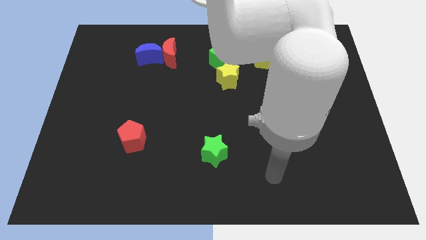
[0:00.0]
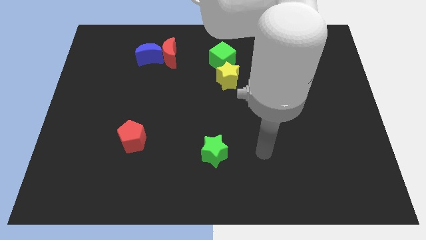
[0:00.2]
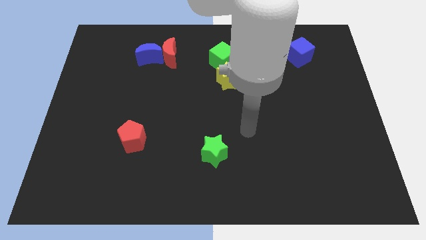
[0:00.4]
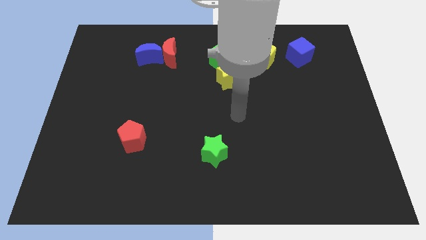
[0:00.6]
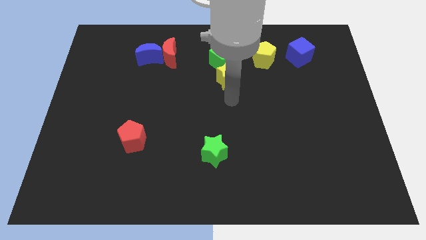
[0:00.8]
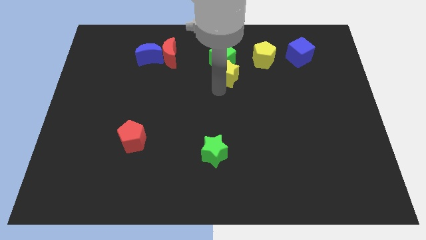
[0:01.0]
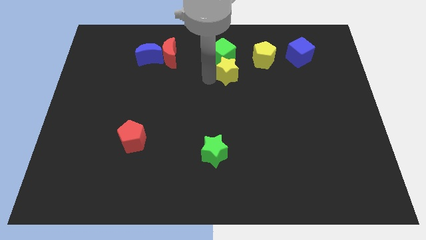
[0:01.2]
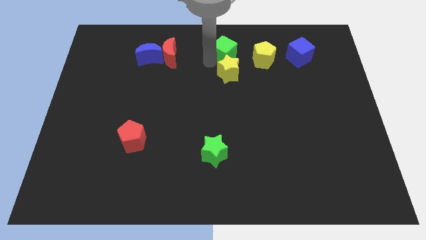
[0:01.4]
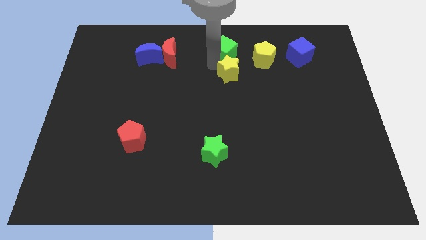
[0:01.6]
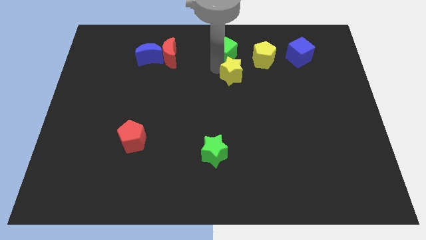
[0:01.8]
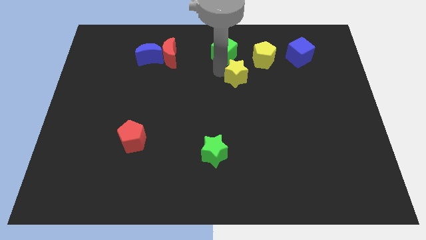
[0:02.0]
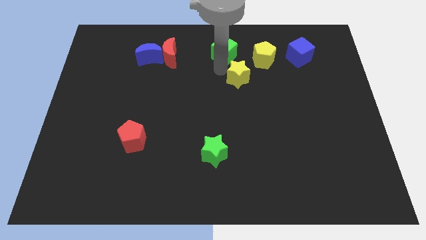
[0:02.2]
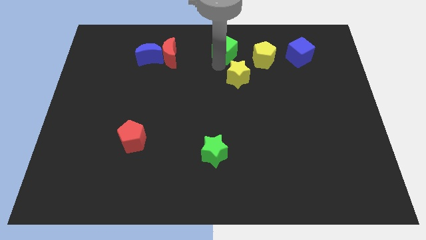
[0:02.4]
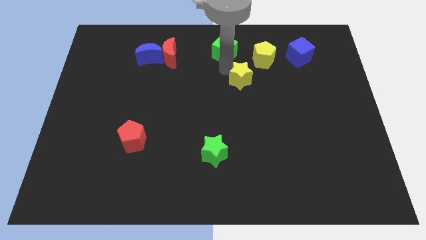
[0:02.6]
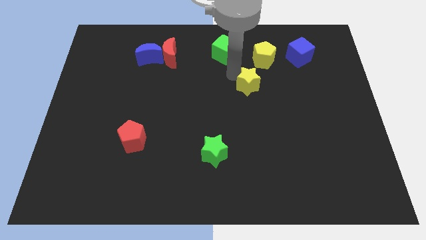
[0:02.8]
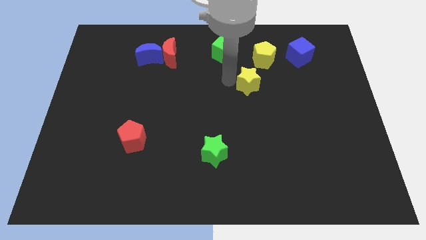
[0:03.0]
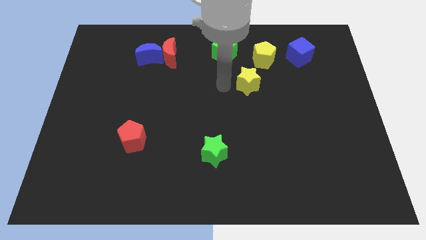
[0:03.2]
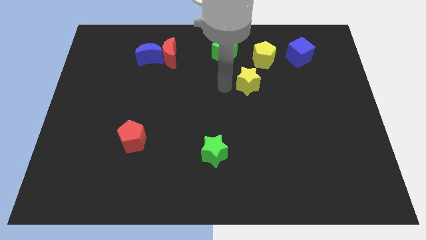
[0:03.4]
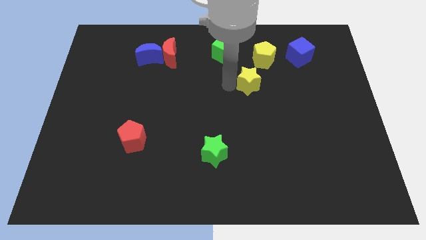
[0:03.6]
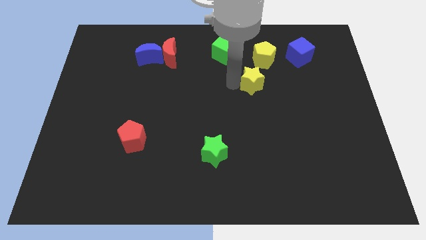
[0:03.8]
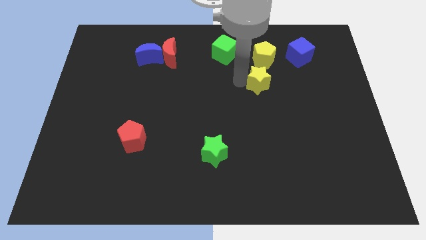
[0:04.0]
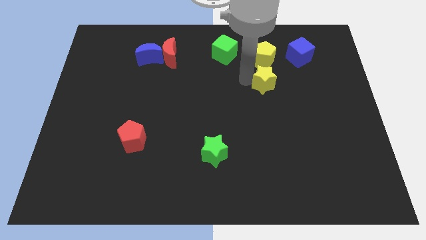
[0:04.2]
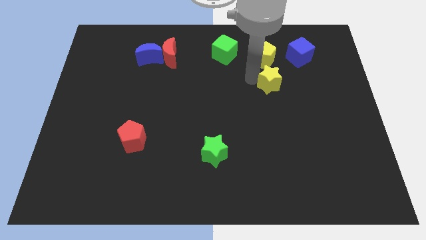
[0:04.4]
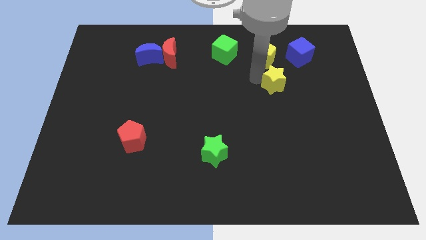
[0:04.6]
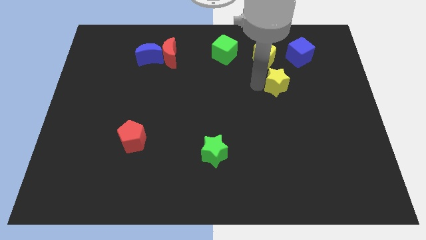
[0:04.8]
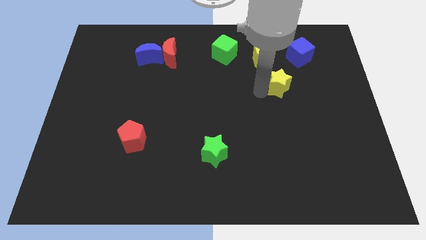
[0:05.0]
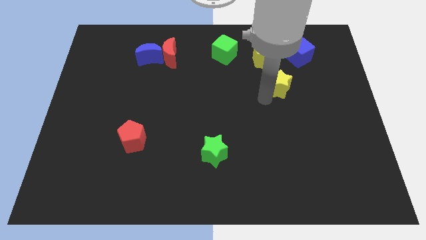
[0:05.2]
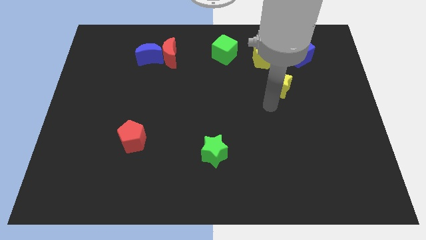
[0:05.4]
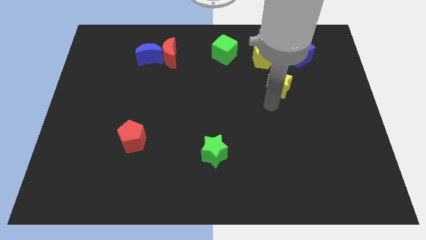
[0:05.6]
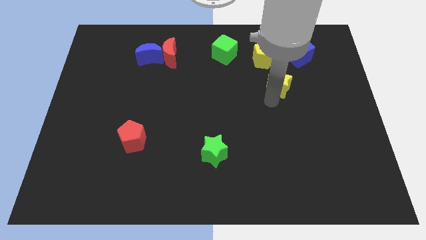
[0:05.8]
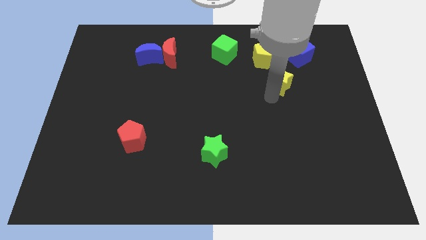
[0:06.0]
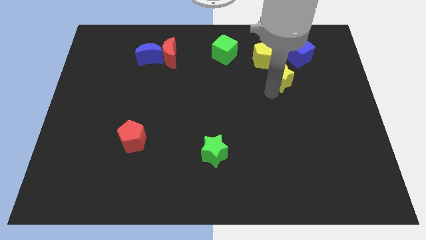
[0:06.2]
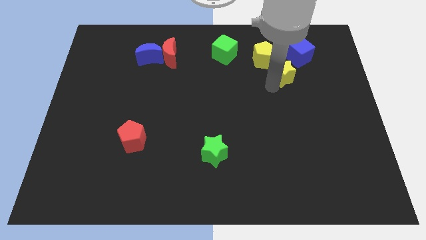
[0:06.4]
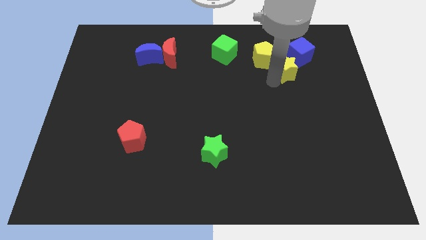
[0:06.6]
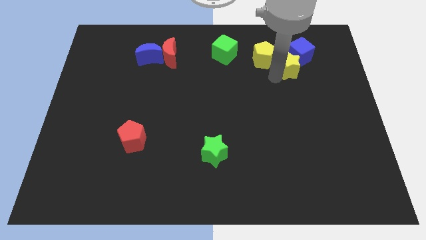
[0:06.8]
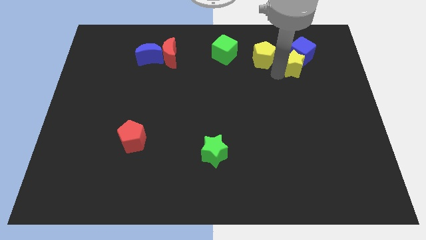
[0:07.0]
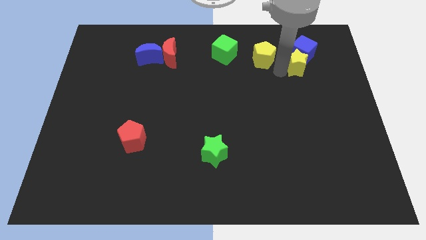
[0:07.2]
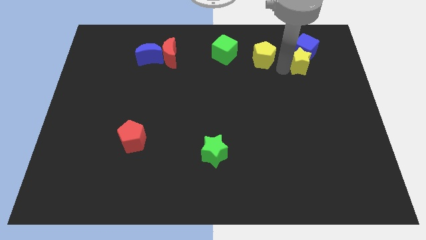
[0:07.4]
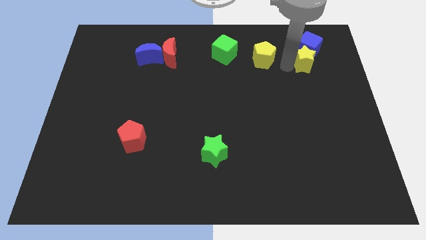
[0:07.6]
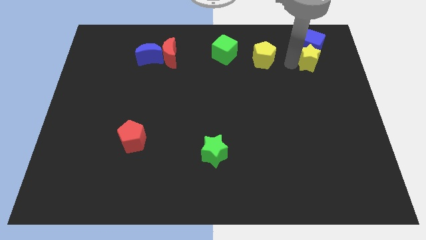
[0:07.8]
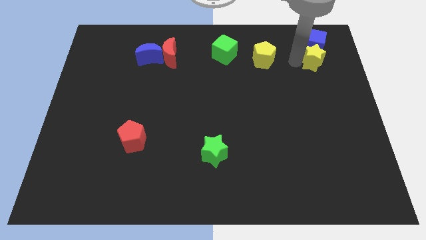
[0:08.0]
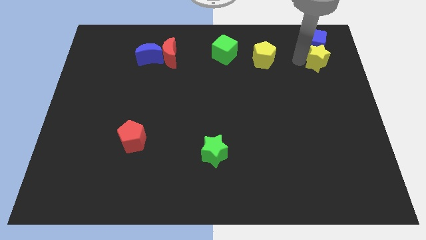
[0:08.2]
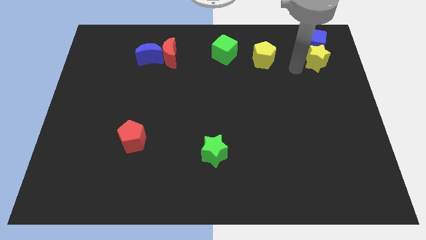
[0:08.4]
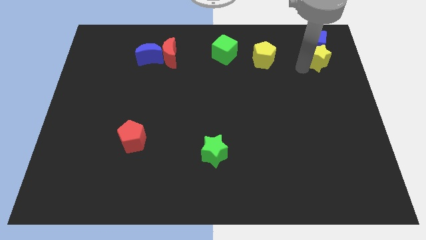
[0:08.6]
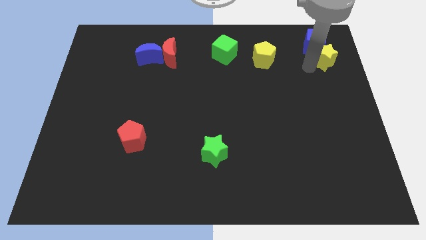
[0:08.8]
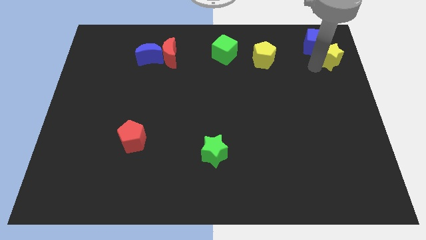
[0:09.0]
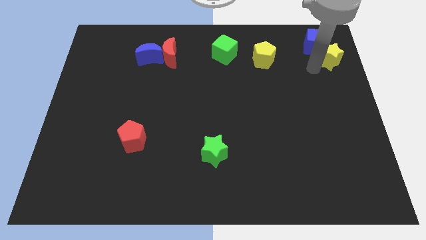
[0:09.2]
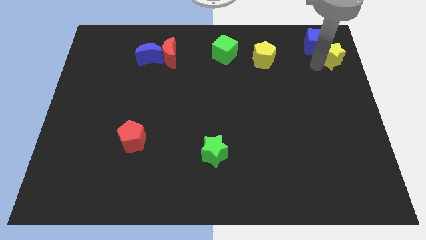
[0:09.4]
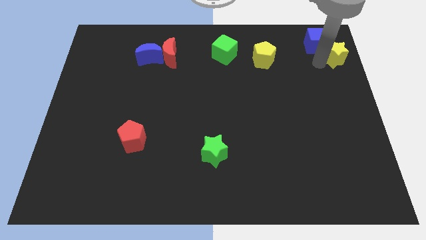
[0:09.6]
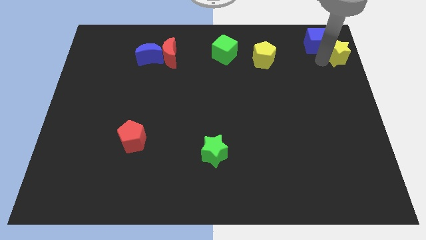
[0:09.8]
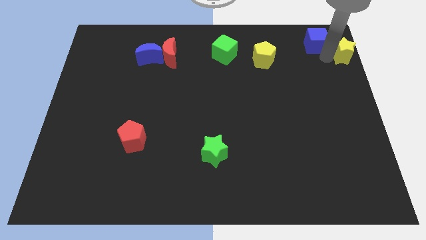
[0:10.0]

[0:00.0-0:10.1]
slide the yellow star to the top right corner

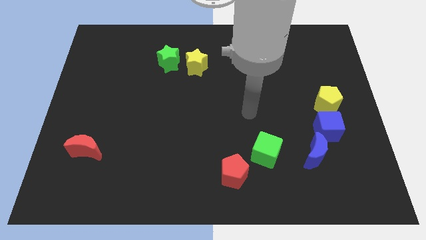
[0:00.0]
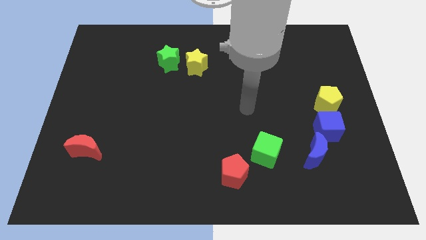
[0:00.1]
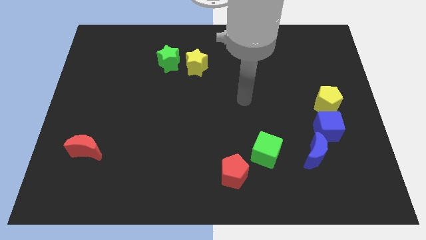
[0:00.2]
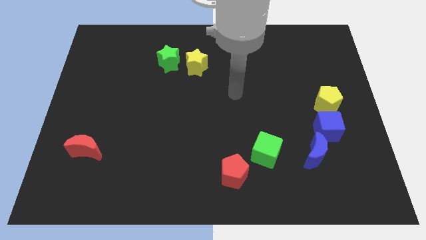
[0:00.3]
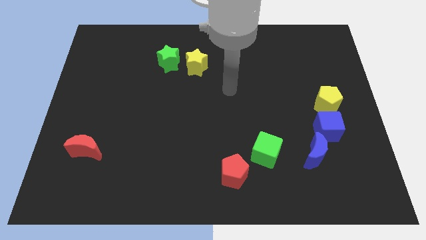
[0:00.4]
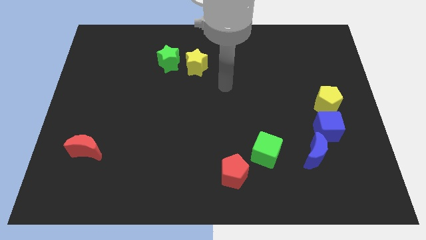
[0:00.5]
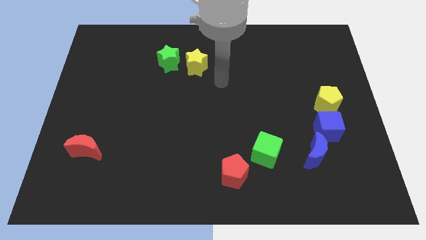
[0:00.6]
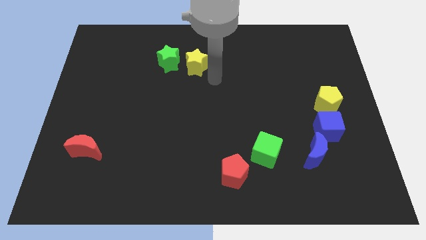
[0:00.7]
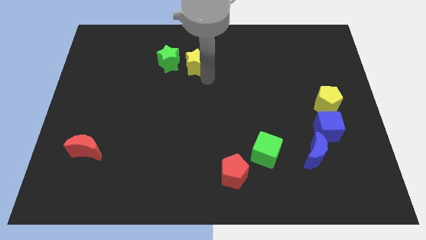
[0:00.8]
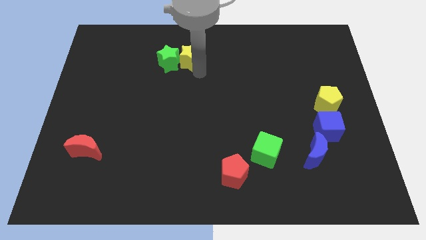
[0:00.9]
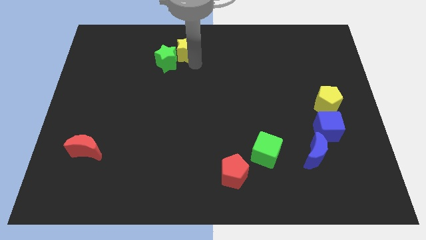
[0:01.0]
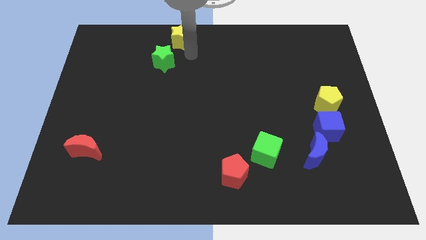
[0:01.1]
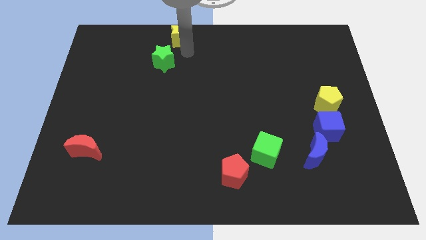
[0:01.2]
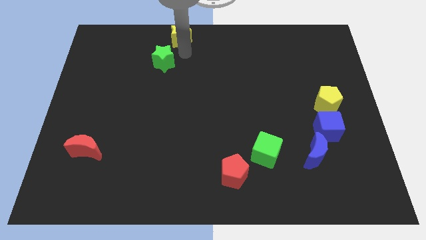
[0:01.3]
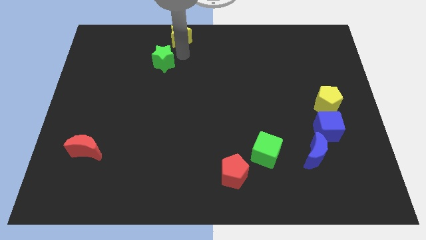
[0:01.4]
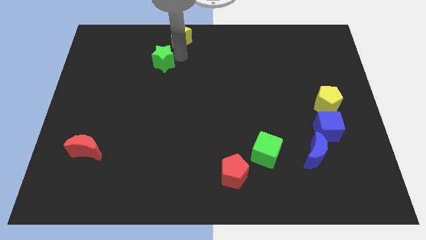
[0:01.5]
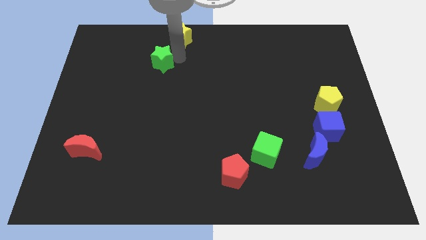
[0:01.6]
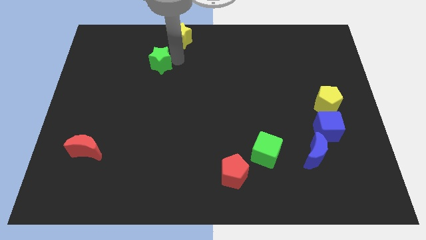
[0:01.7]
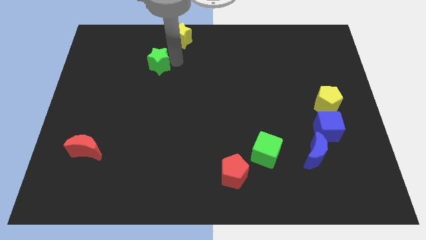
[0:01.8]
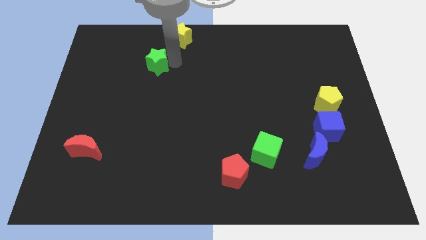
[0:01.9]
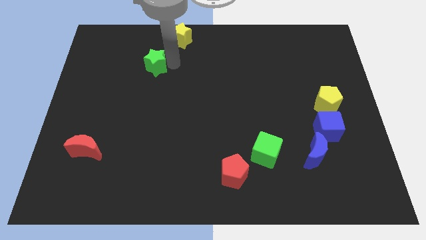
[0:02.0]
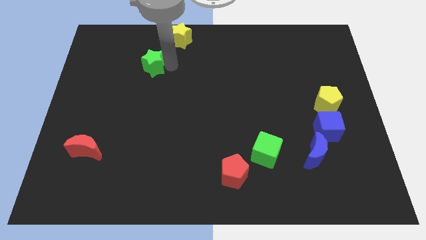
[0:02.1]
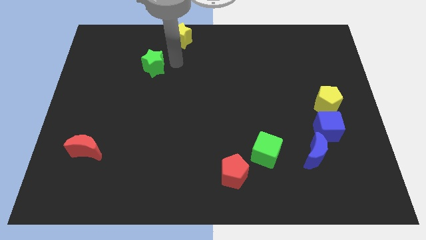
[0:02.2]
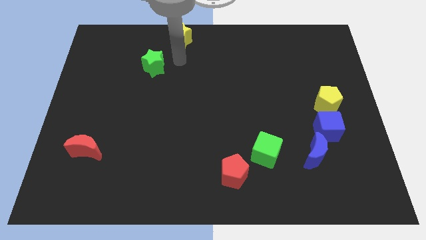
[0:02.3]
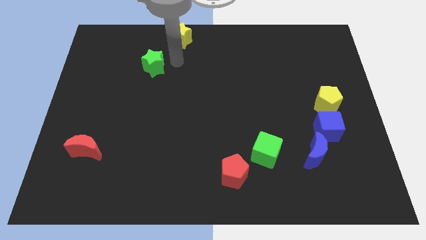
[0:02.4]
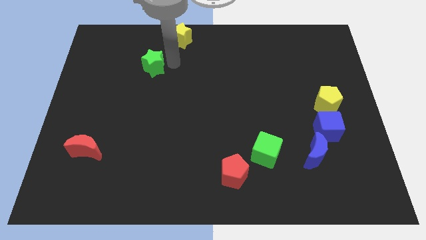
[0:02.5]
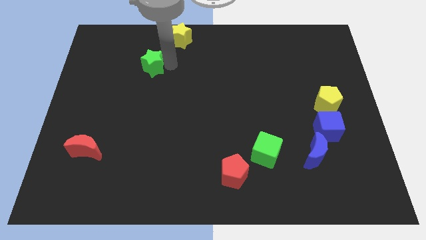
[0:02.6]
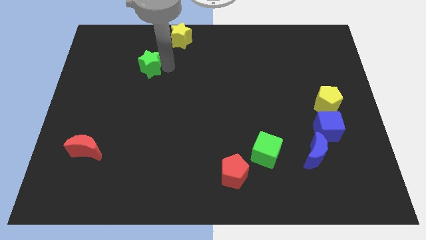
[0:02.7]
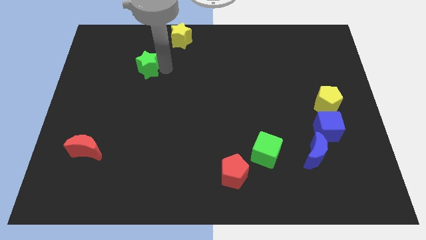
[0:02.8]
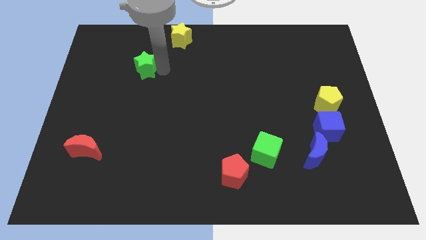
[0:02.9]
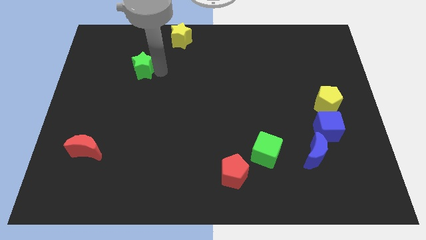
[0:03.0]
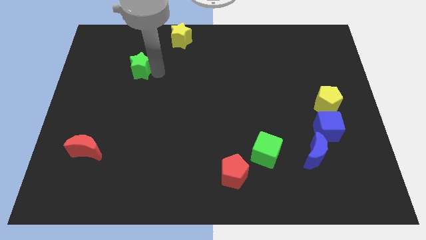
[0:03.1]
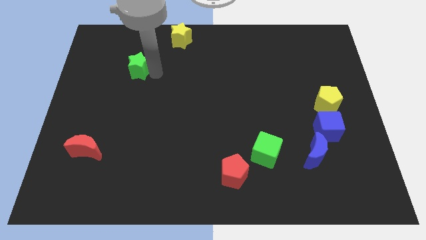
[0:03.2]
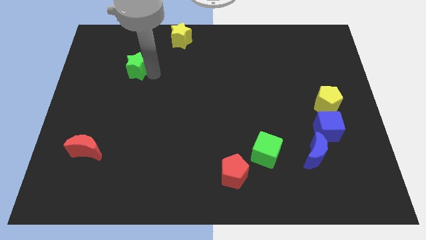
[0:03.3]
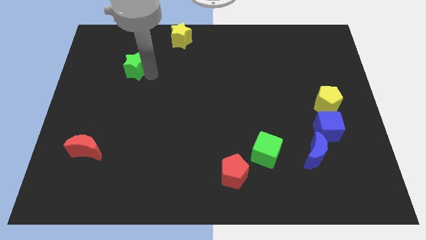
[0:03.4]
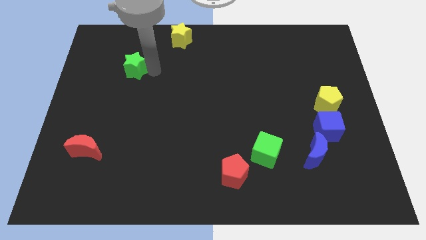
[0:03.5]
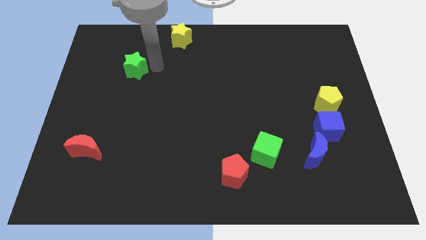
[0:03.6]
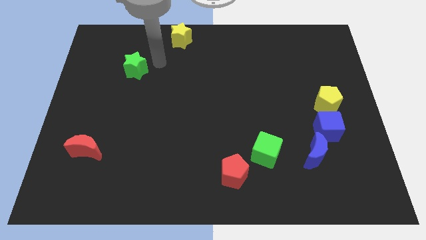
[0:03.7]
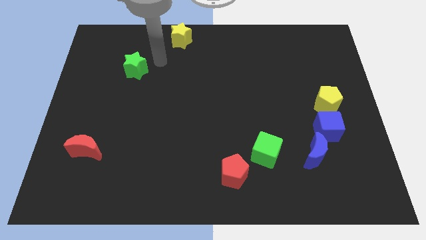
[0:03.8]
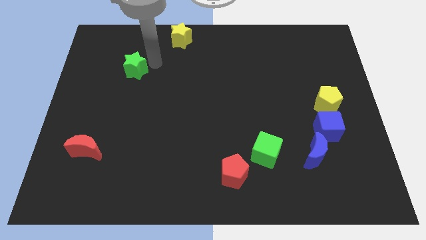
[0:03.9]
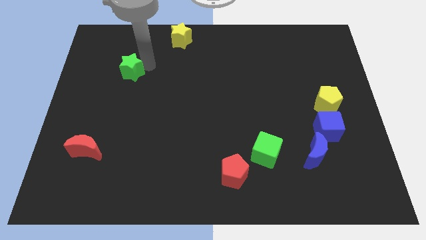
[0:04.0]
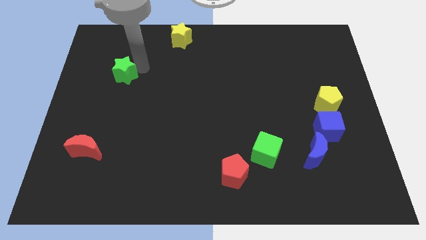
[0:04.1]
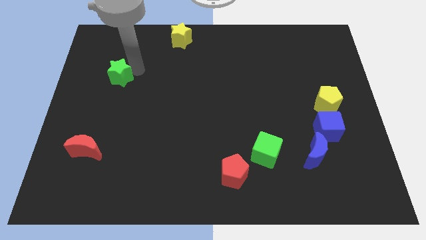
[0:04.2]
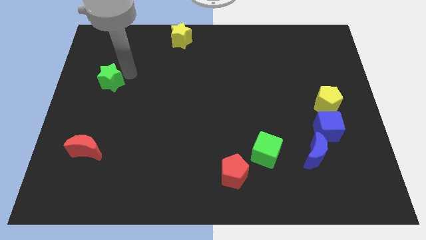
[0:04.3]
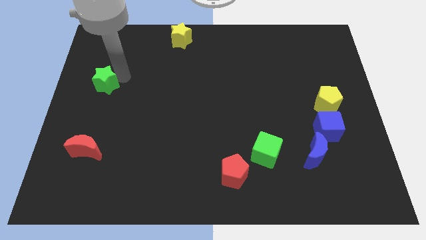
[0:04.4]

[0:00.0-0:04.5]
push the green star to the center left
